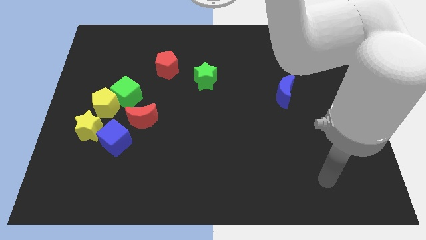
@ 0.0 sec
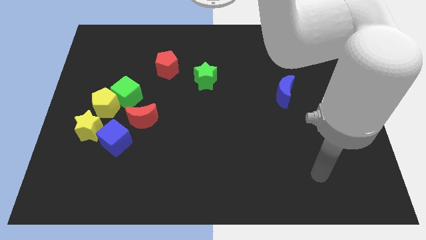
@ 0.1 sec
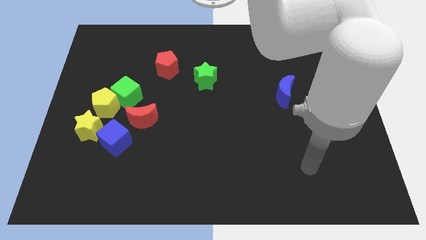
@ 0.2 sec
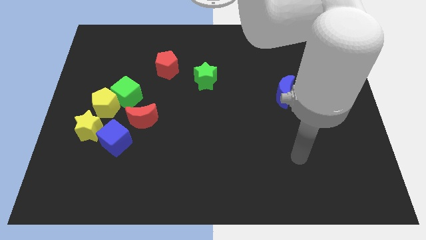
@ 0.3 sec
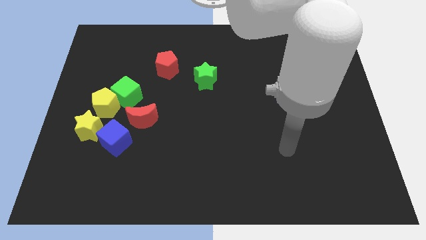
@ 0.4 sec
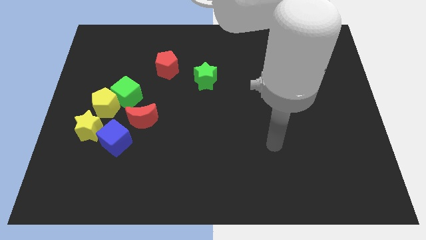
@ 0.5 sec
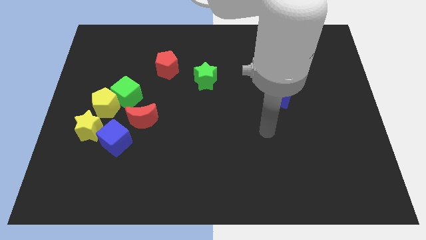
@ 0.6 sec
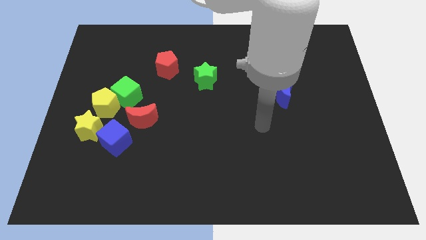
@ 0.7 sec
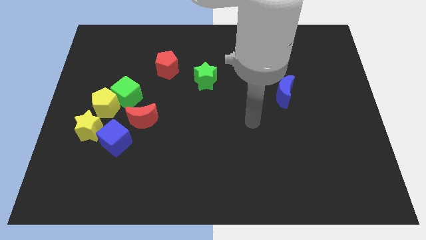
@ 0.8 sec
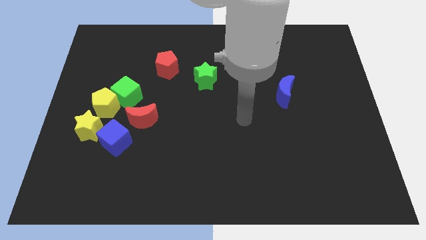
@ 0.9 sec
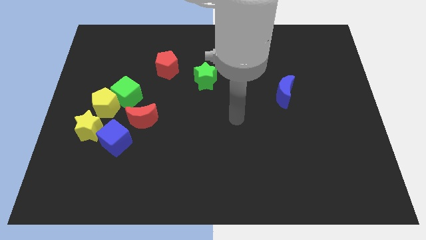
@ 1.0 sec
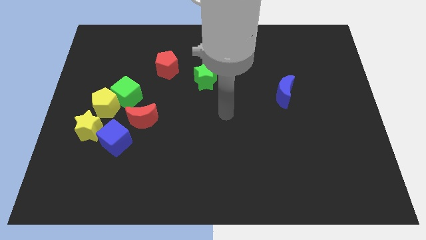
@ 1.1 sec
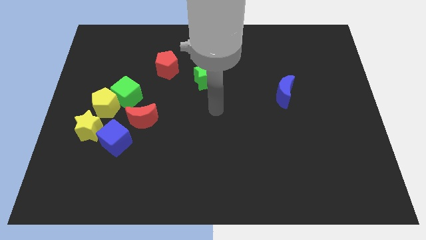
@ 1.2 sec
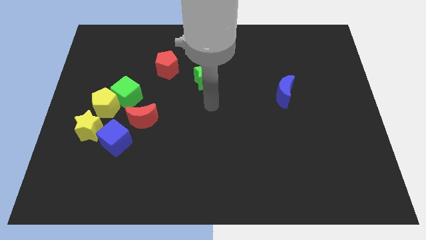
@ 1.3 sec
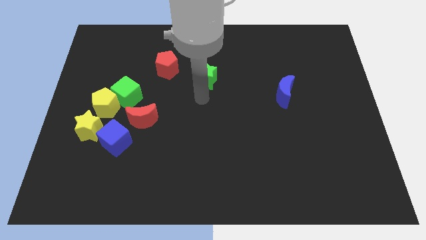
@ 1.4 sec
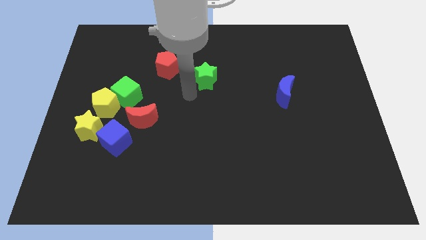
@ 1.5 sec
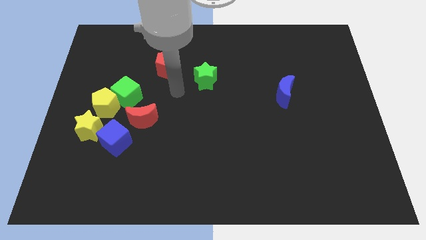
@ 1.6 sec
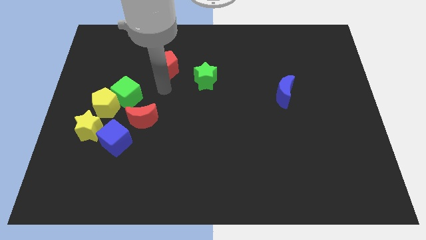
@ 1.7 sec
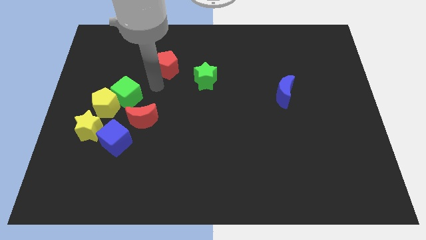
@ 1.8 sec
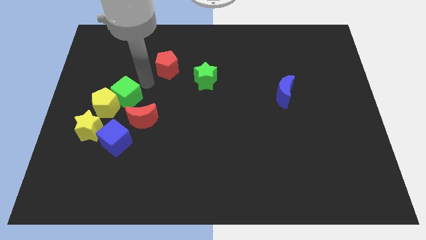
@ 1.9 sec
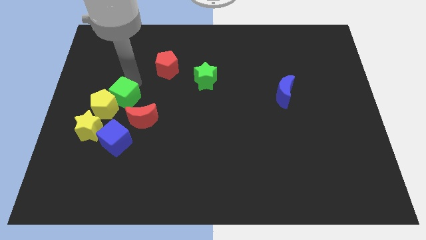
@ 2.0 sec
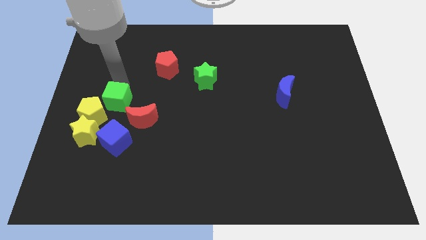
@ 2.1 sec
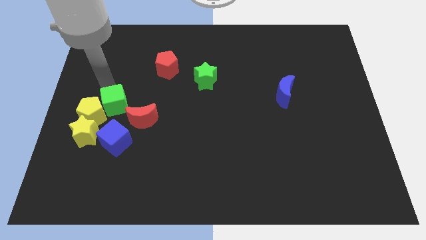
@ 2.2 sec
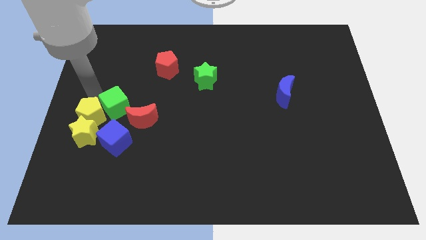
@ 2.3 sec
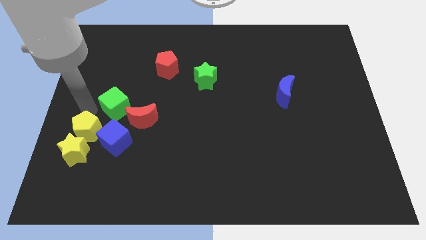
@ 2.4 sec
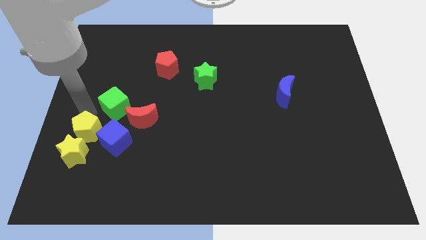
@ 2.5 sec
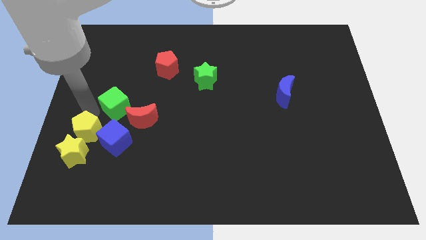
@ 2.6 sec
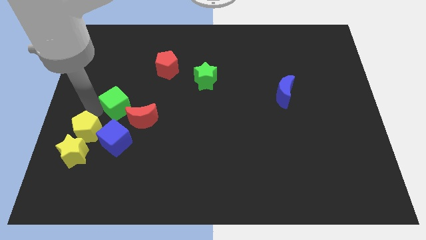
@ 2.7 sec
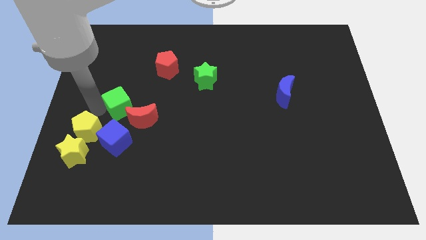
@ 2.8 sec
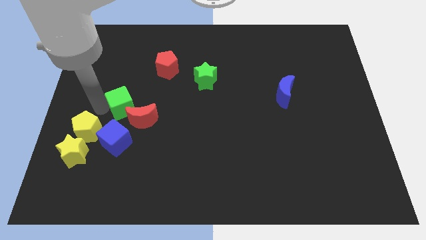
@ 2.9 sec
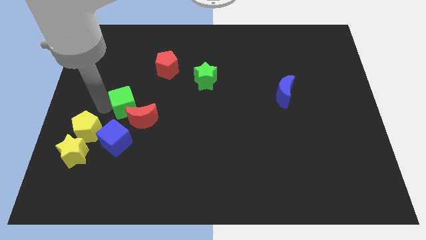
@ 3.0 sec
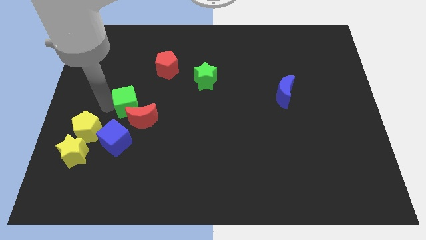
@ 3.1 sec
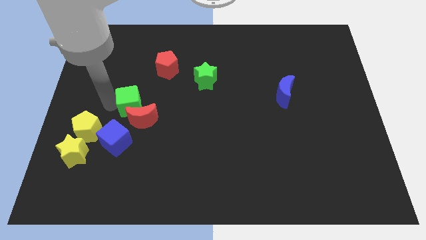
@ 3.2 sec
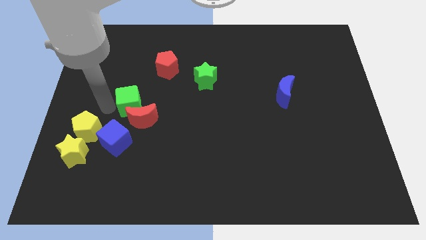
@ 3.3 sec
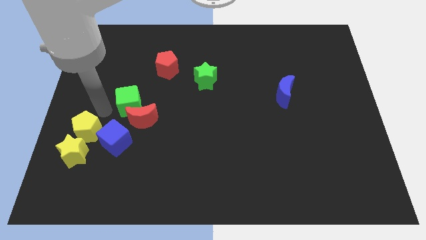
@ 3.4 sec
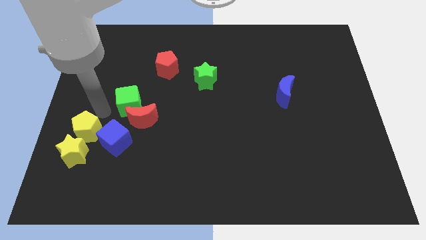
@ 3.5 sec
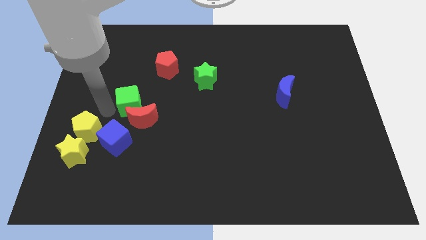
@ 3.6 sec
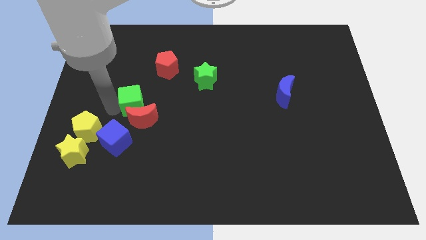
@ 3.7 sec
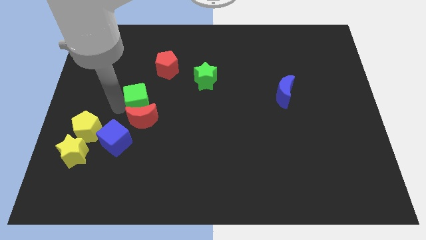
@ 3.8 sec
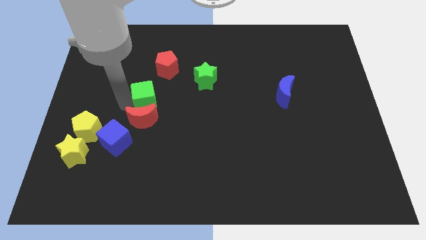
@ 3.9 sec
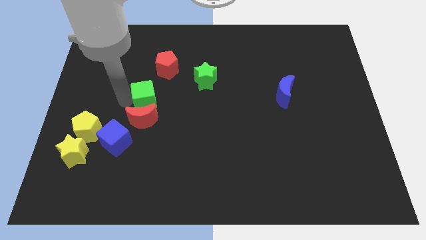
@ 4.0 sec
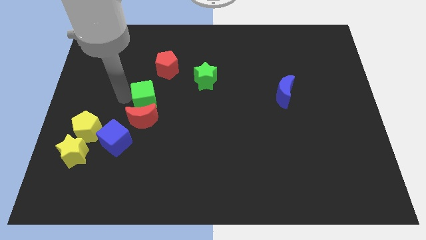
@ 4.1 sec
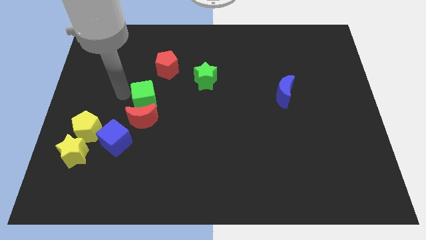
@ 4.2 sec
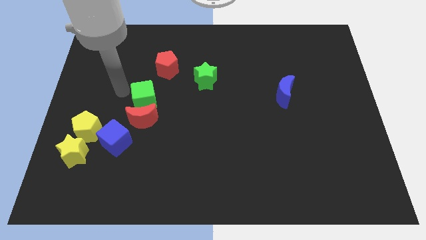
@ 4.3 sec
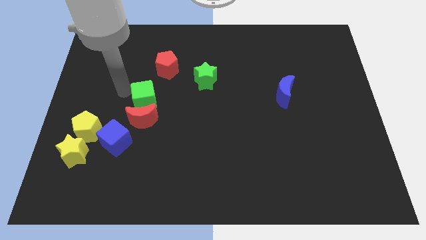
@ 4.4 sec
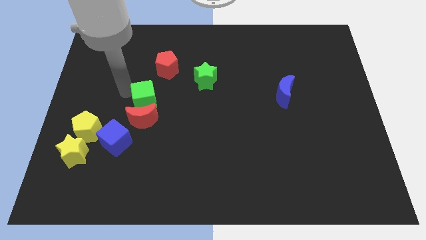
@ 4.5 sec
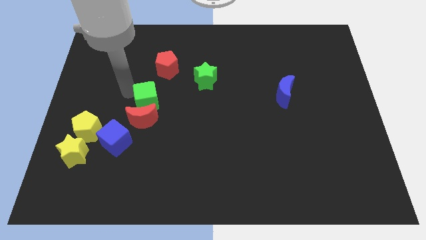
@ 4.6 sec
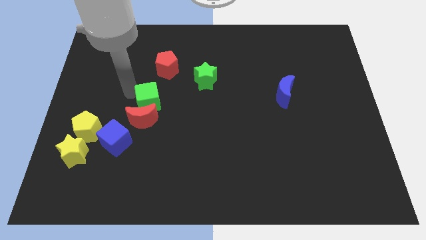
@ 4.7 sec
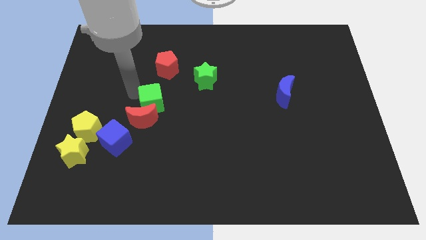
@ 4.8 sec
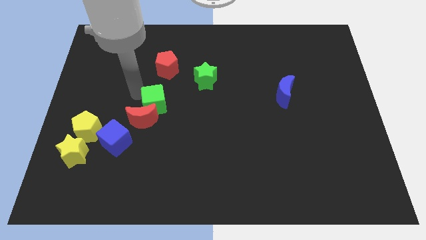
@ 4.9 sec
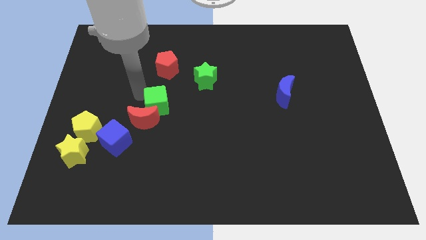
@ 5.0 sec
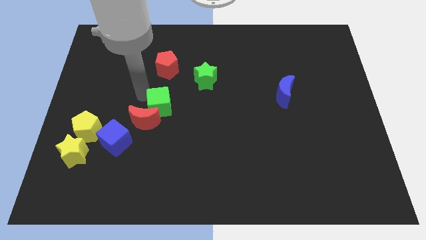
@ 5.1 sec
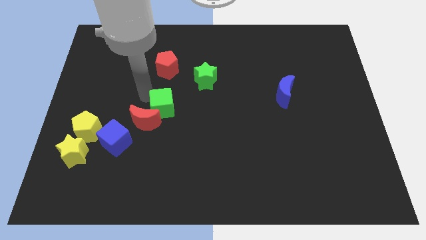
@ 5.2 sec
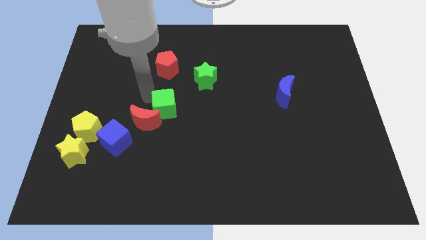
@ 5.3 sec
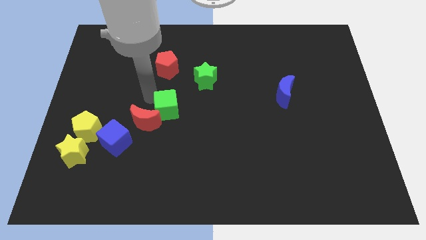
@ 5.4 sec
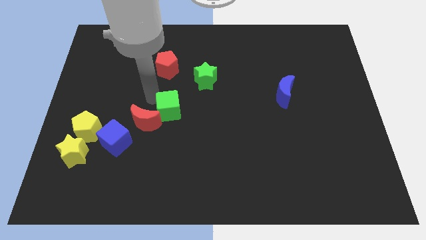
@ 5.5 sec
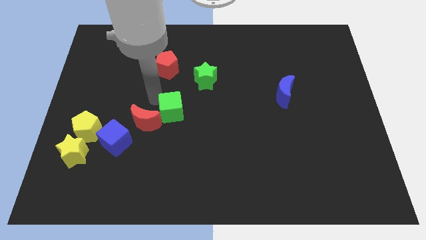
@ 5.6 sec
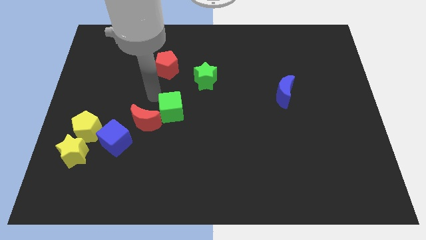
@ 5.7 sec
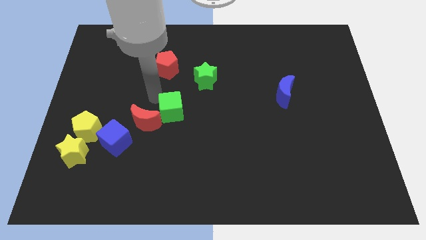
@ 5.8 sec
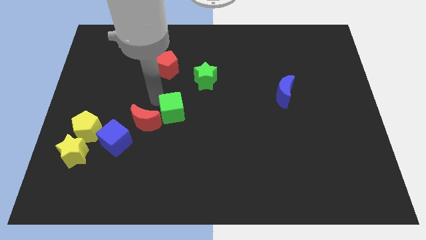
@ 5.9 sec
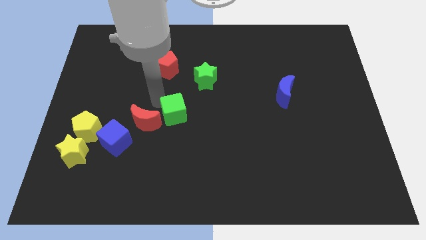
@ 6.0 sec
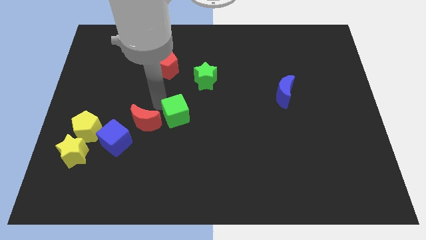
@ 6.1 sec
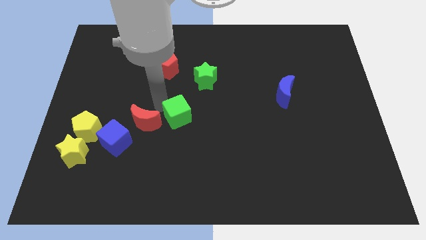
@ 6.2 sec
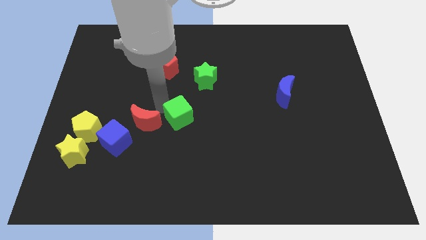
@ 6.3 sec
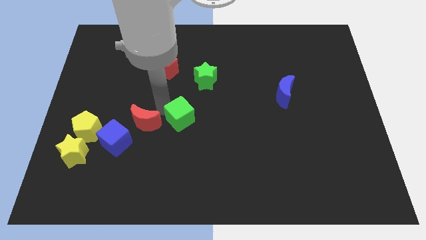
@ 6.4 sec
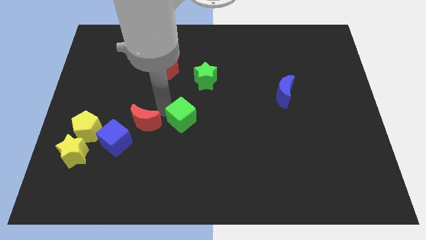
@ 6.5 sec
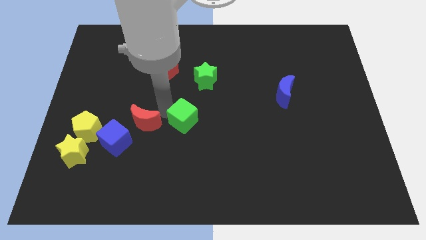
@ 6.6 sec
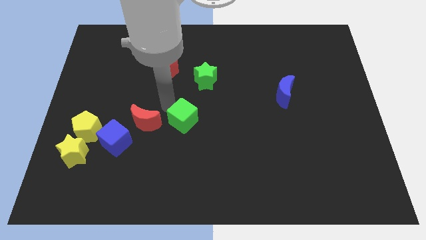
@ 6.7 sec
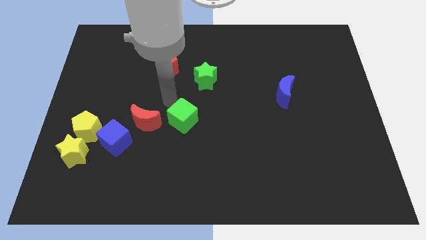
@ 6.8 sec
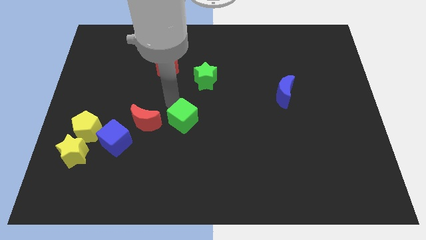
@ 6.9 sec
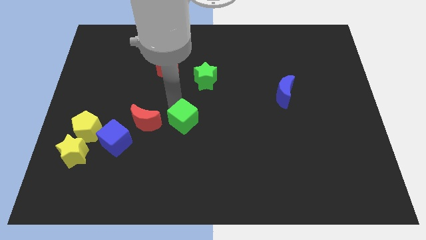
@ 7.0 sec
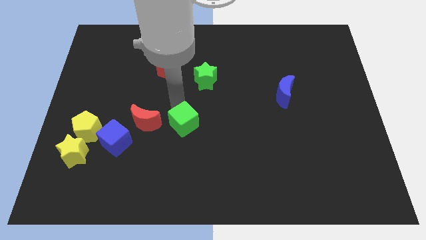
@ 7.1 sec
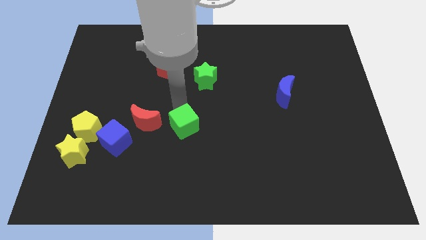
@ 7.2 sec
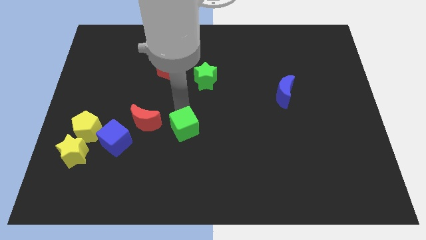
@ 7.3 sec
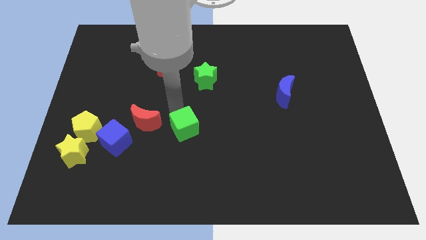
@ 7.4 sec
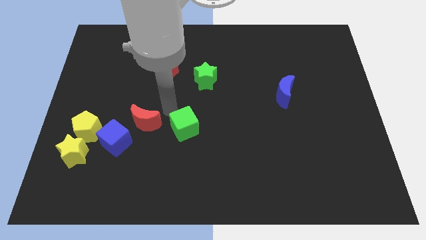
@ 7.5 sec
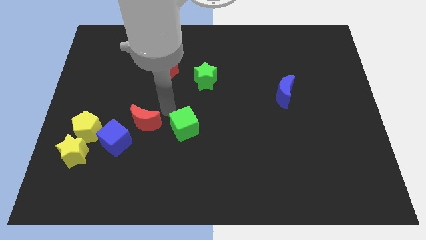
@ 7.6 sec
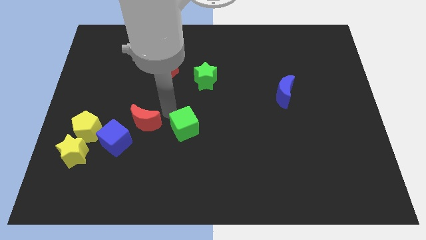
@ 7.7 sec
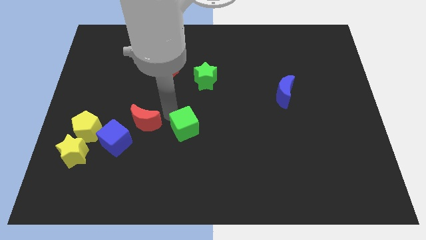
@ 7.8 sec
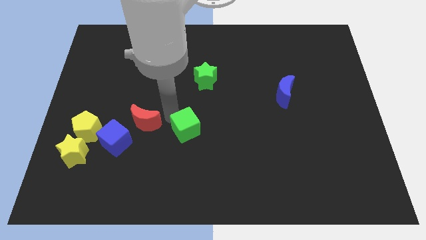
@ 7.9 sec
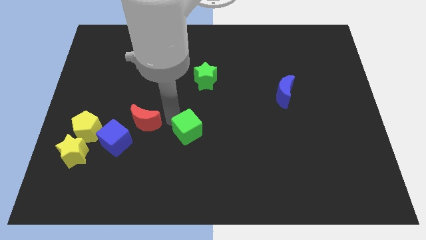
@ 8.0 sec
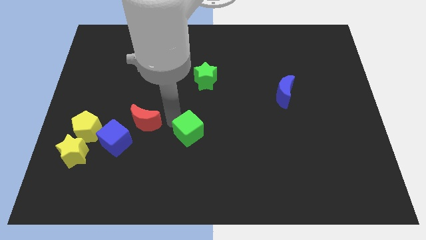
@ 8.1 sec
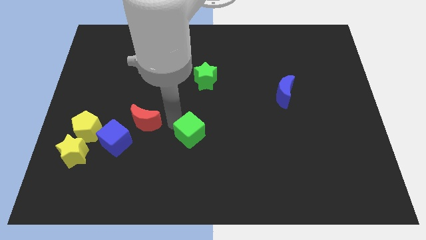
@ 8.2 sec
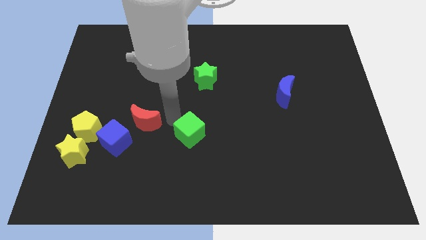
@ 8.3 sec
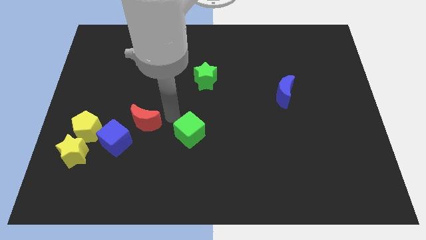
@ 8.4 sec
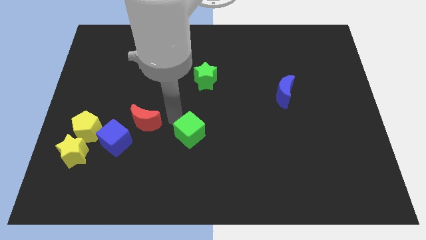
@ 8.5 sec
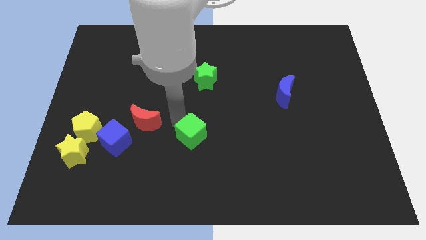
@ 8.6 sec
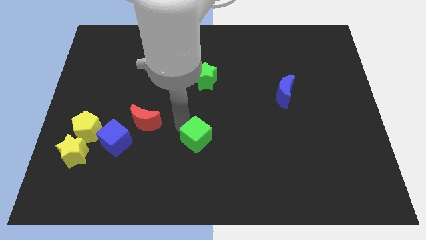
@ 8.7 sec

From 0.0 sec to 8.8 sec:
slide the green cube diagonally downwards and to the right
